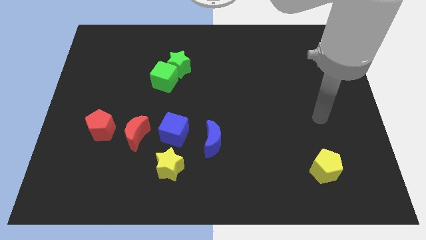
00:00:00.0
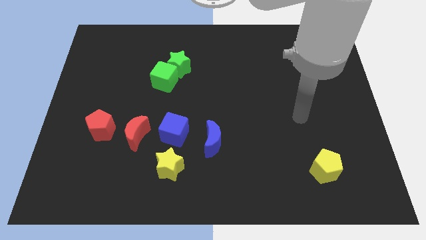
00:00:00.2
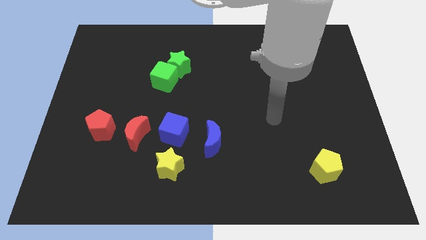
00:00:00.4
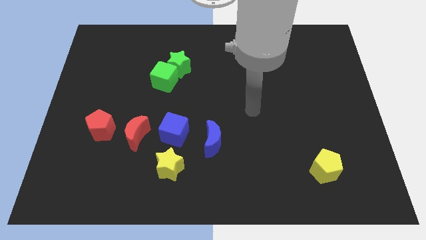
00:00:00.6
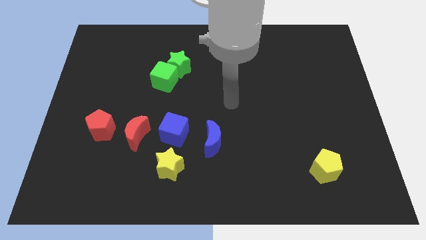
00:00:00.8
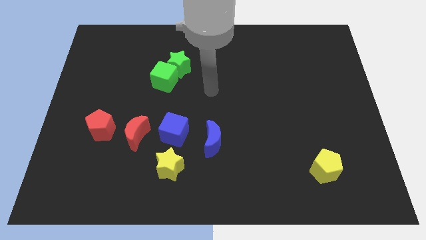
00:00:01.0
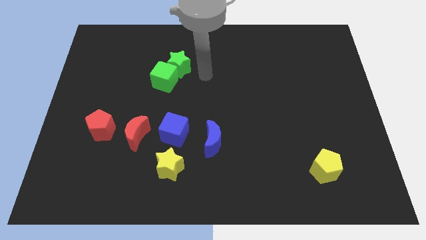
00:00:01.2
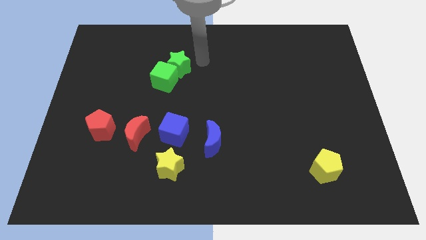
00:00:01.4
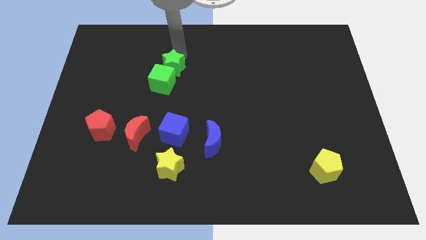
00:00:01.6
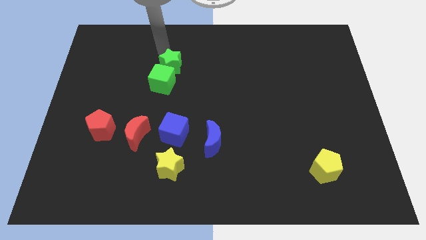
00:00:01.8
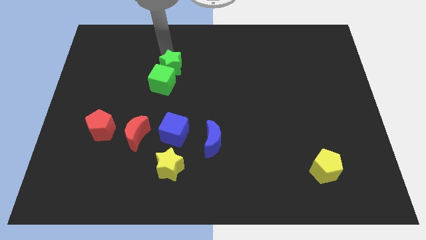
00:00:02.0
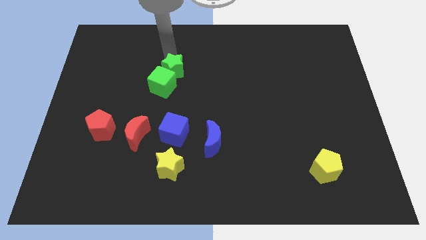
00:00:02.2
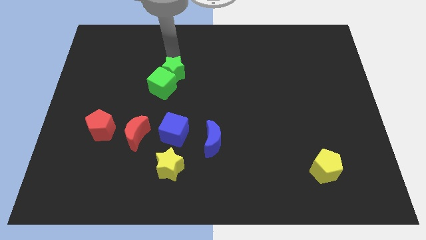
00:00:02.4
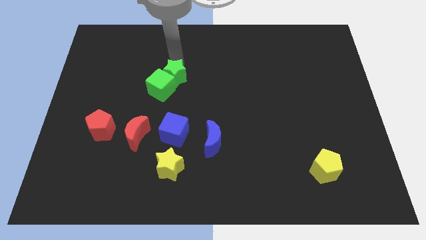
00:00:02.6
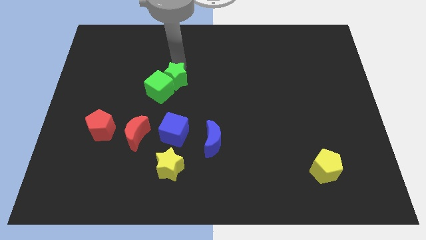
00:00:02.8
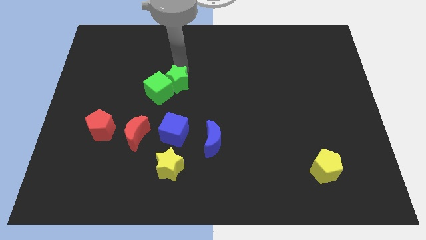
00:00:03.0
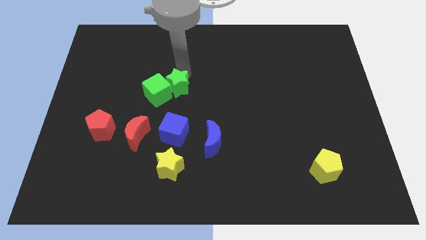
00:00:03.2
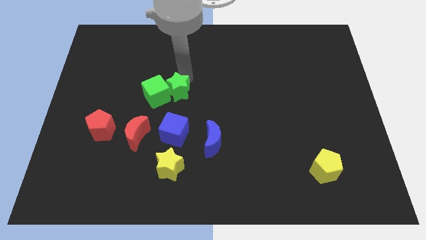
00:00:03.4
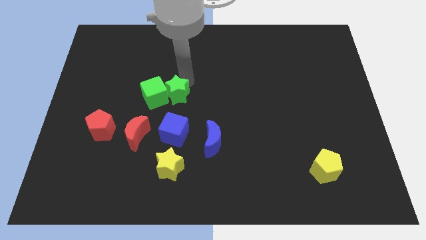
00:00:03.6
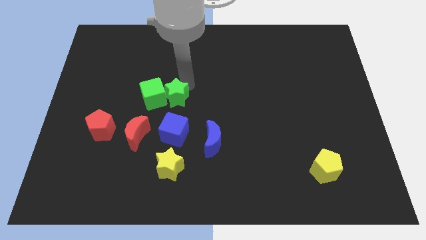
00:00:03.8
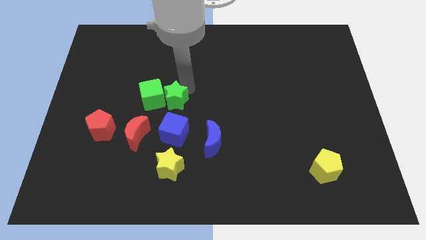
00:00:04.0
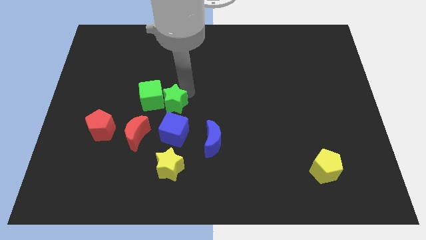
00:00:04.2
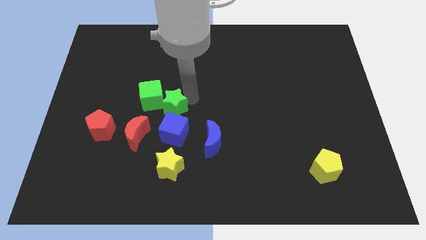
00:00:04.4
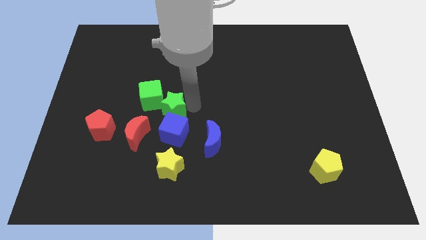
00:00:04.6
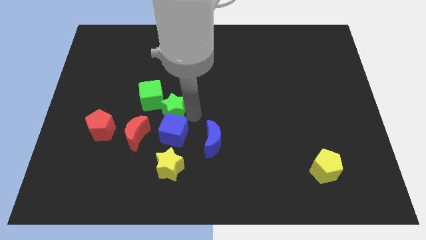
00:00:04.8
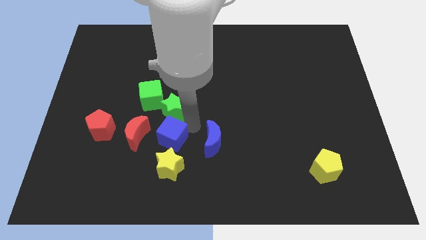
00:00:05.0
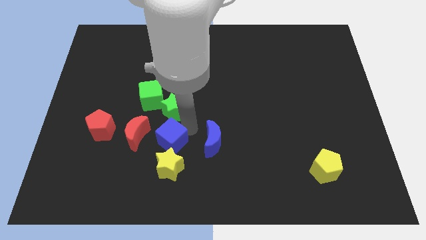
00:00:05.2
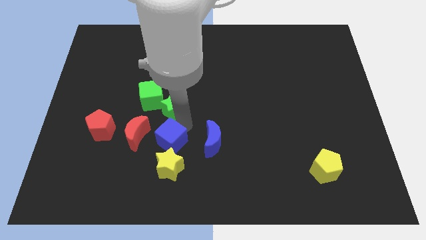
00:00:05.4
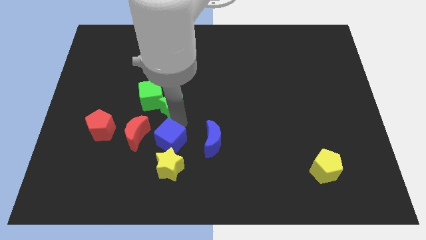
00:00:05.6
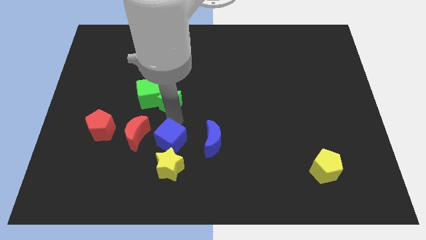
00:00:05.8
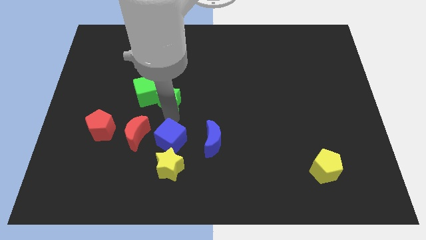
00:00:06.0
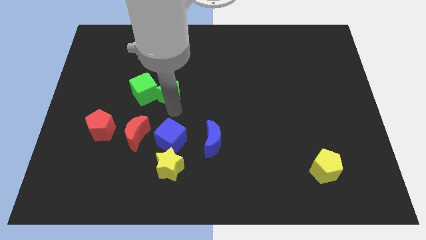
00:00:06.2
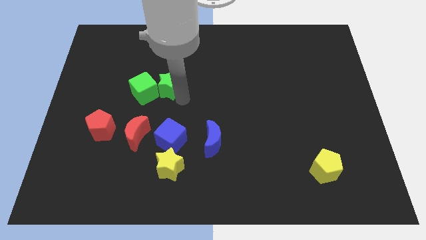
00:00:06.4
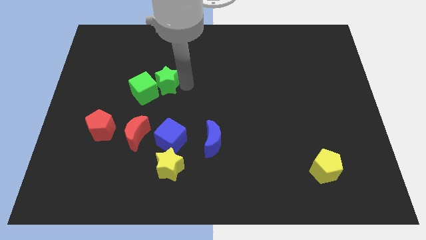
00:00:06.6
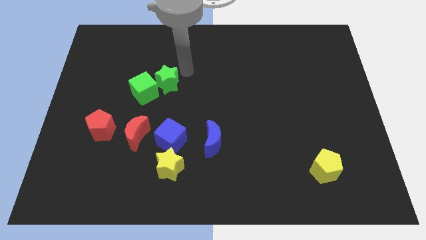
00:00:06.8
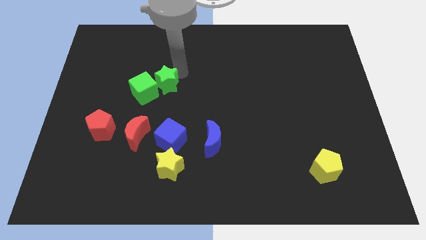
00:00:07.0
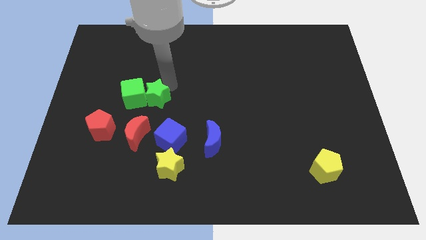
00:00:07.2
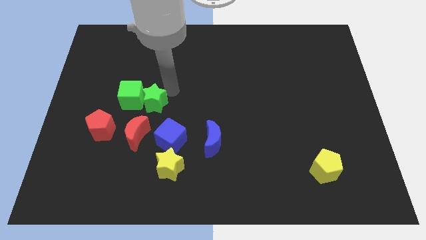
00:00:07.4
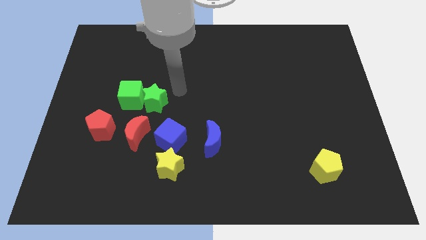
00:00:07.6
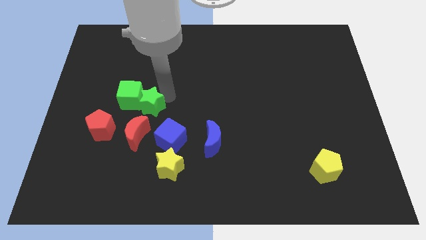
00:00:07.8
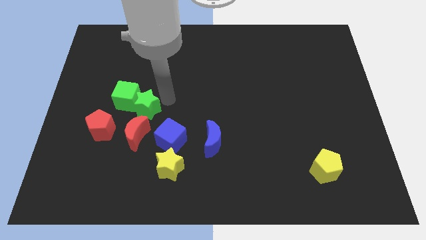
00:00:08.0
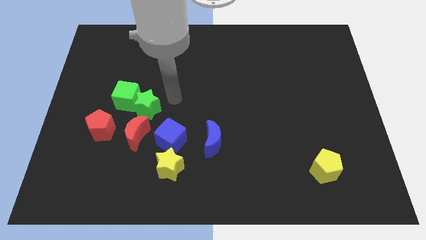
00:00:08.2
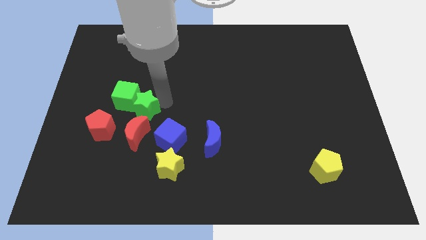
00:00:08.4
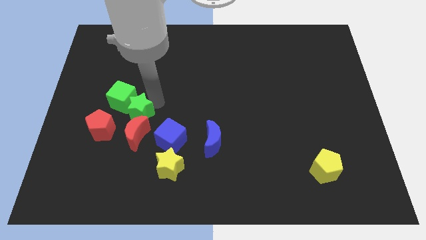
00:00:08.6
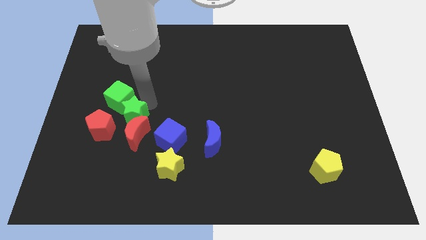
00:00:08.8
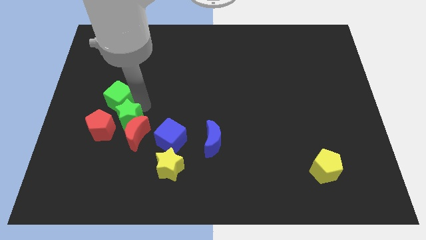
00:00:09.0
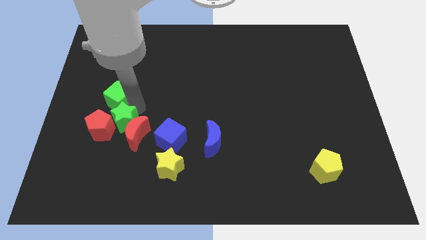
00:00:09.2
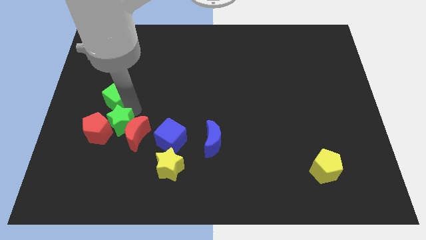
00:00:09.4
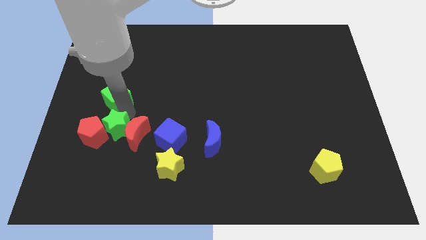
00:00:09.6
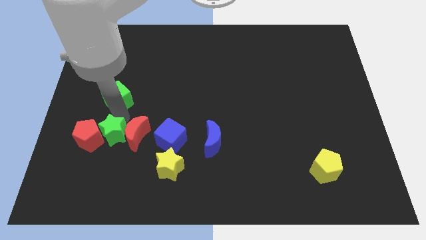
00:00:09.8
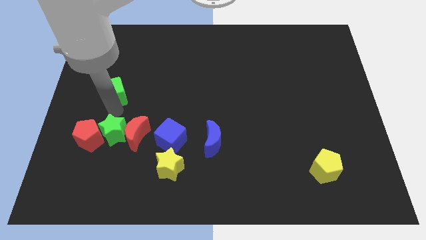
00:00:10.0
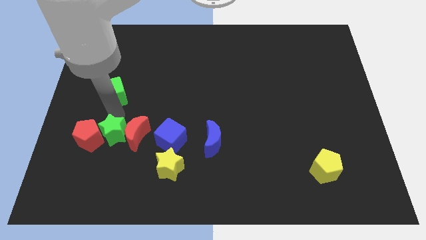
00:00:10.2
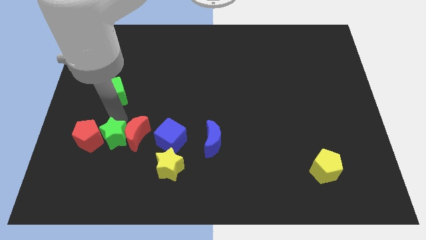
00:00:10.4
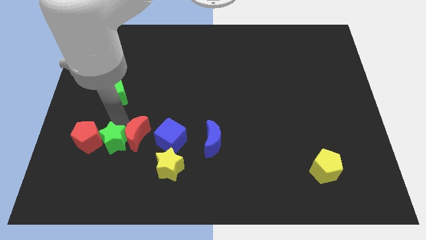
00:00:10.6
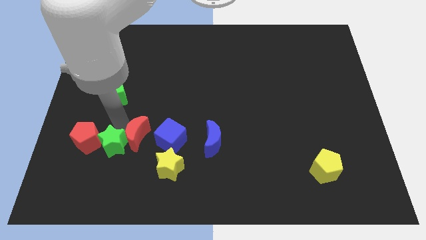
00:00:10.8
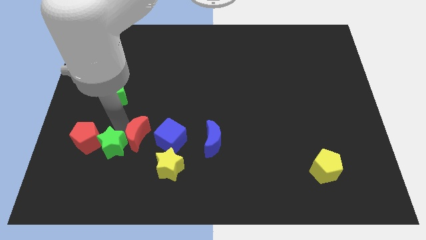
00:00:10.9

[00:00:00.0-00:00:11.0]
move the green star to the bottom of the red moon

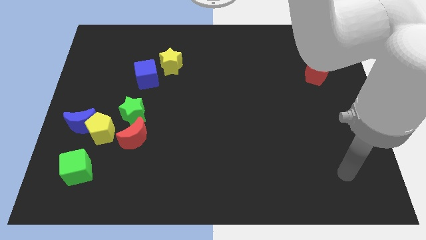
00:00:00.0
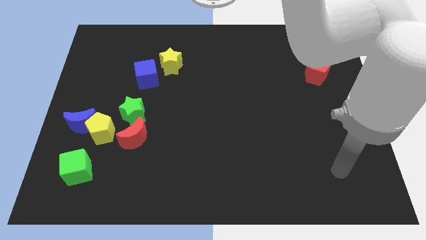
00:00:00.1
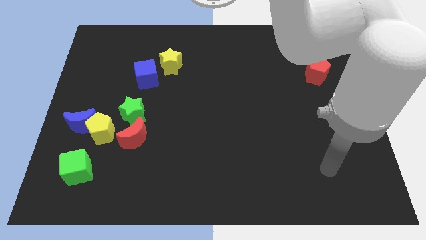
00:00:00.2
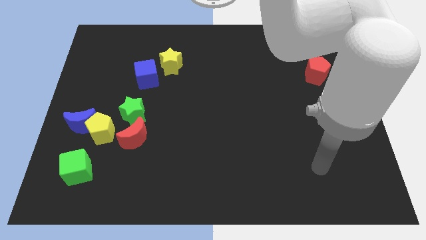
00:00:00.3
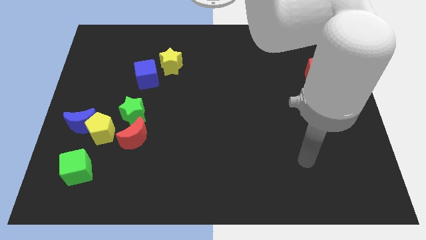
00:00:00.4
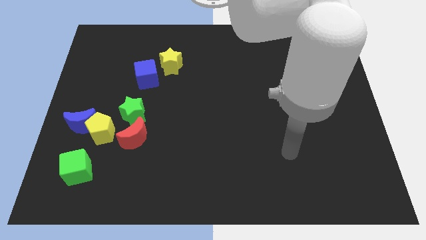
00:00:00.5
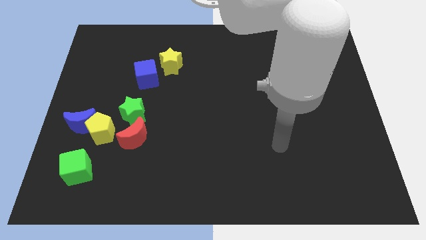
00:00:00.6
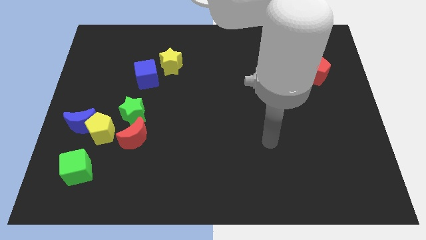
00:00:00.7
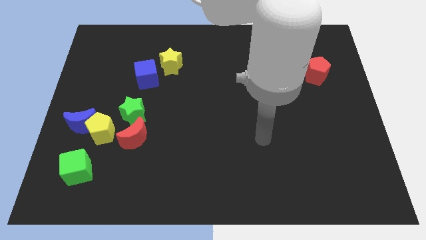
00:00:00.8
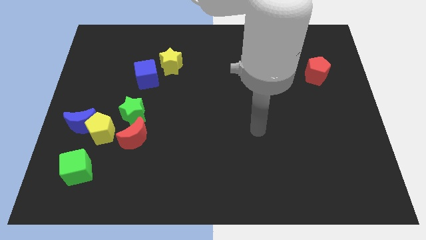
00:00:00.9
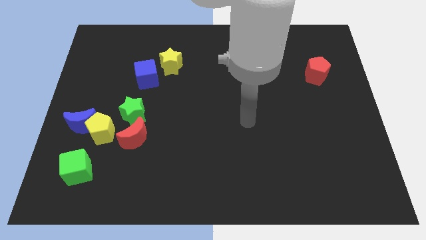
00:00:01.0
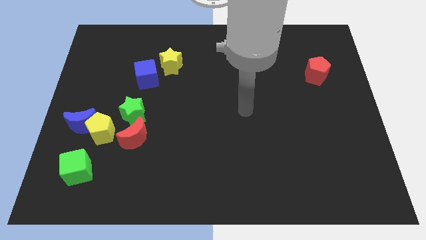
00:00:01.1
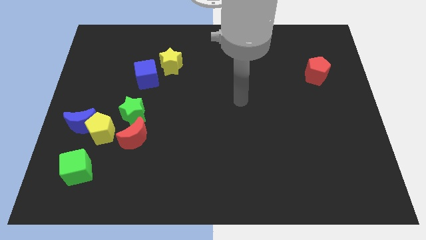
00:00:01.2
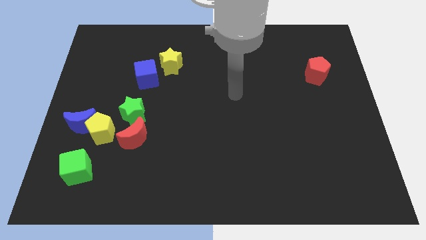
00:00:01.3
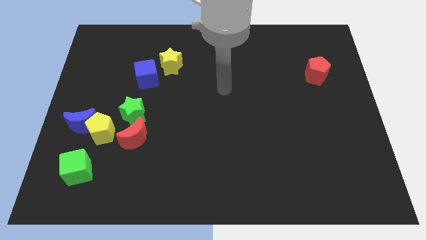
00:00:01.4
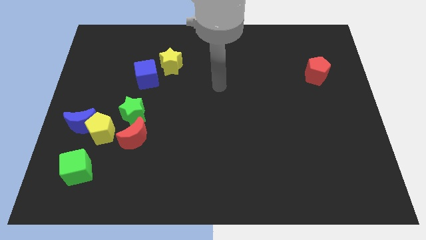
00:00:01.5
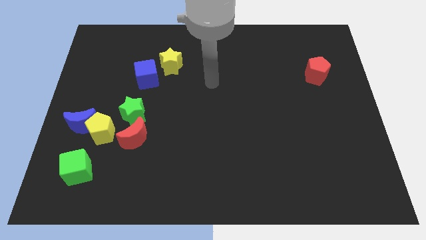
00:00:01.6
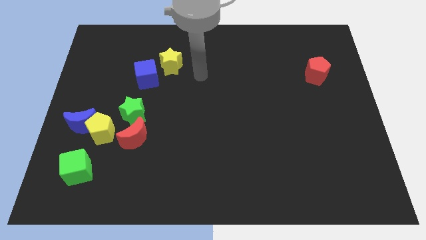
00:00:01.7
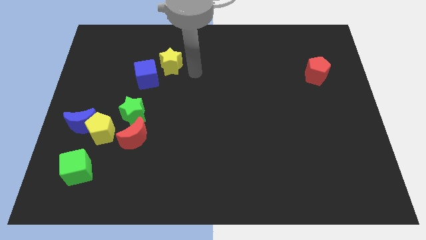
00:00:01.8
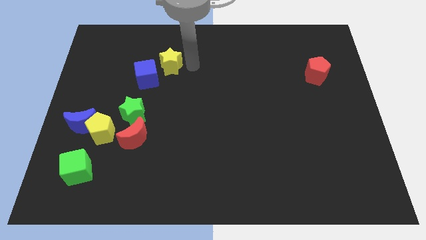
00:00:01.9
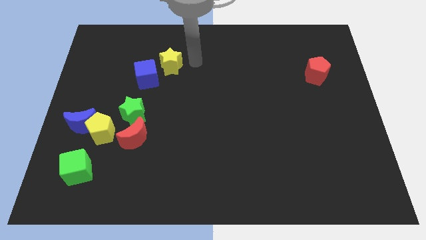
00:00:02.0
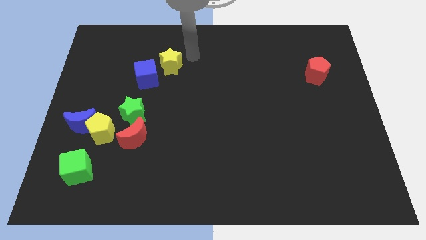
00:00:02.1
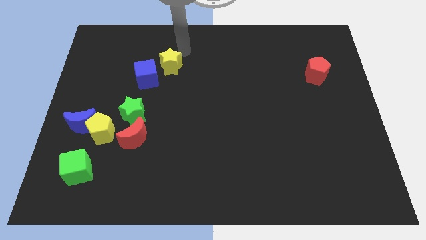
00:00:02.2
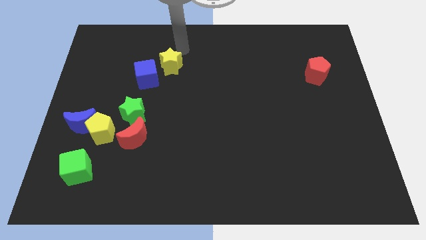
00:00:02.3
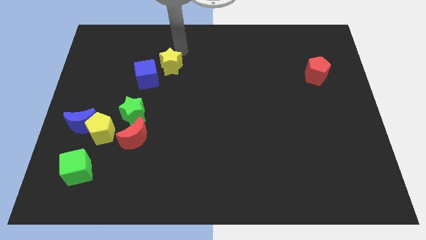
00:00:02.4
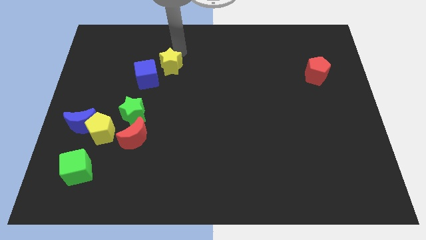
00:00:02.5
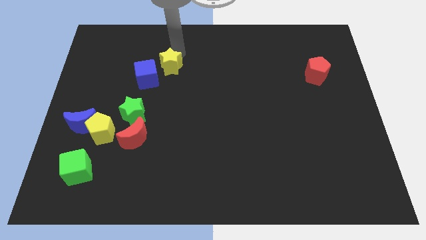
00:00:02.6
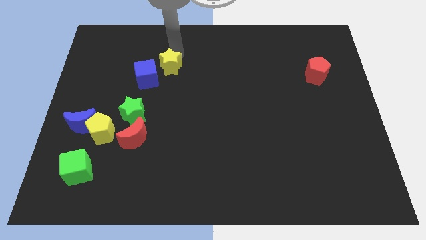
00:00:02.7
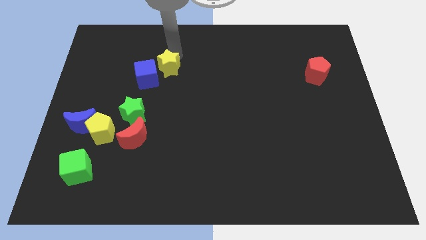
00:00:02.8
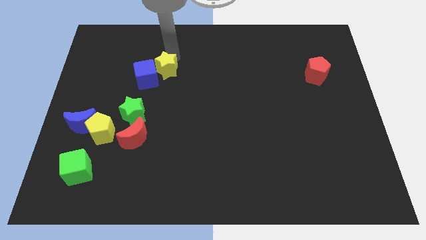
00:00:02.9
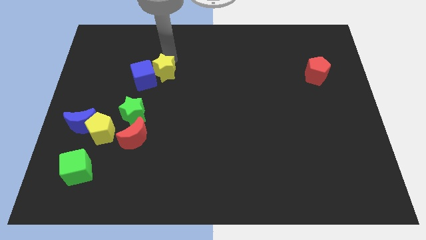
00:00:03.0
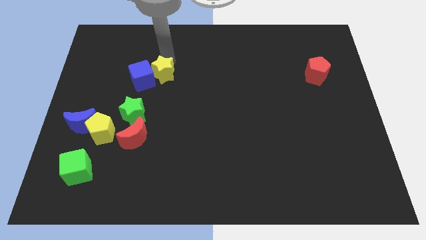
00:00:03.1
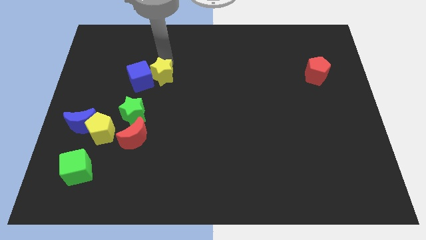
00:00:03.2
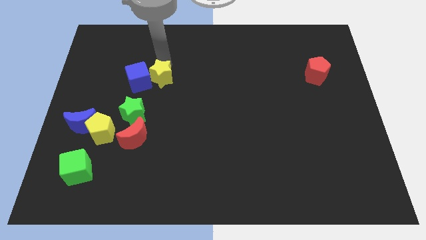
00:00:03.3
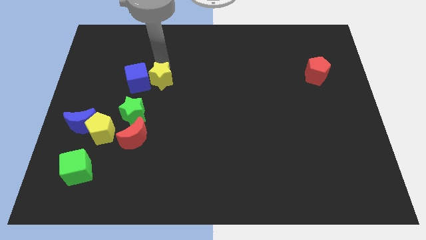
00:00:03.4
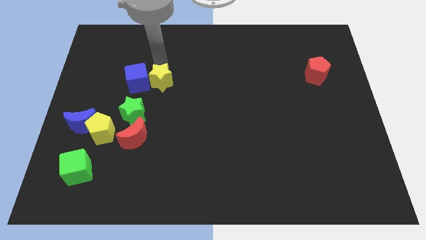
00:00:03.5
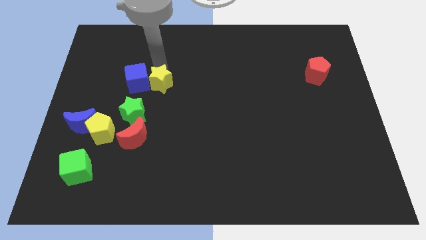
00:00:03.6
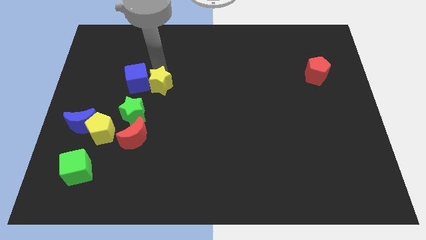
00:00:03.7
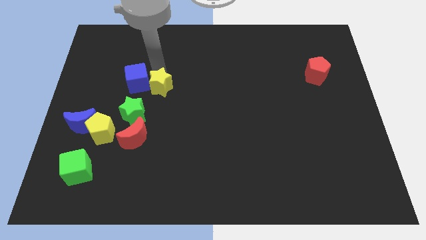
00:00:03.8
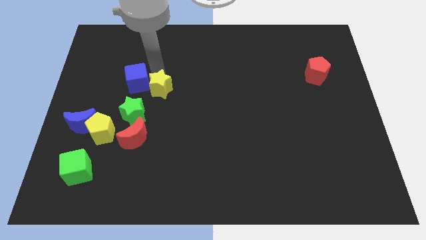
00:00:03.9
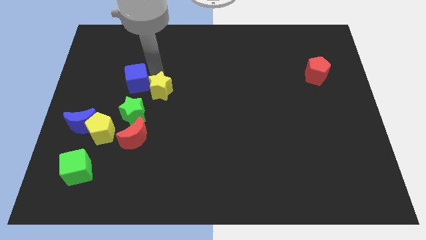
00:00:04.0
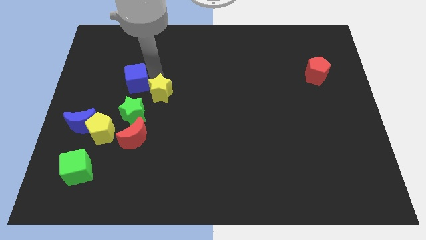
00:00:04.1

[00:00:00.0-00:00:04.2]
put the yellow star to the top of the red moon
